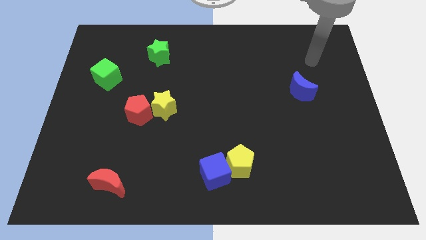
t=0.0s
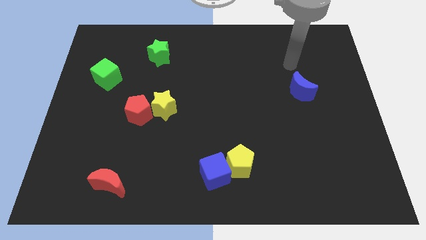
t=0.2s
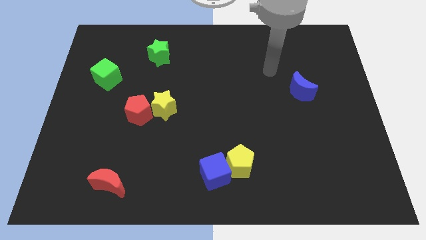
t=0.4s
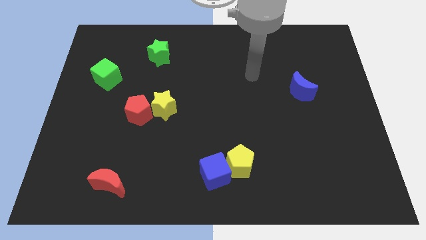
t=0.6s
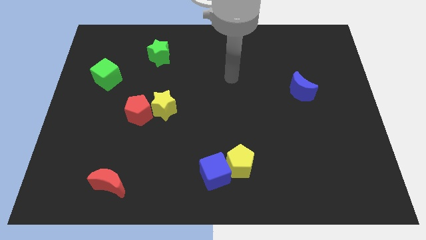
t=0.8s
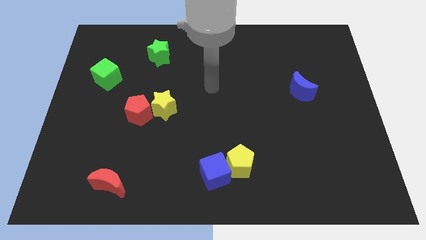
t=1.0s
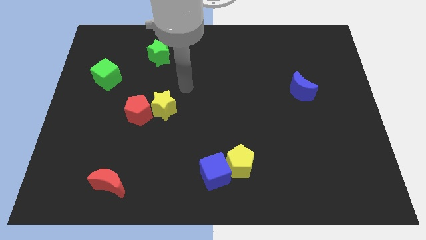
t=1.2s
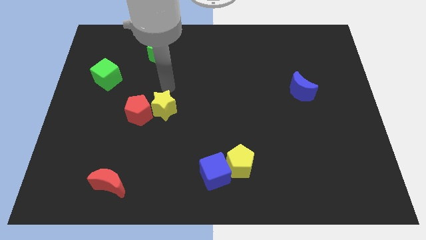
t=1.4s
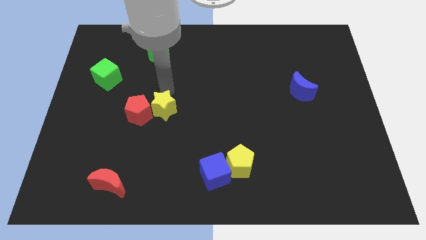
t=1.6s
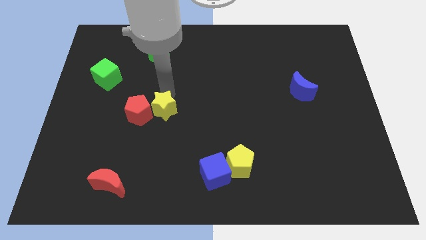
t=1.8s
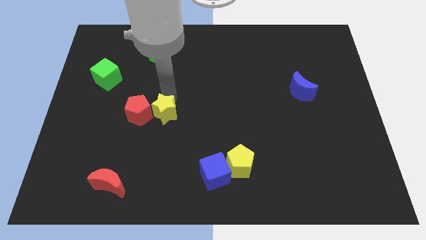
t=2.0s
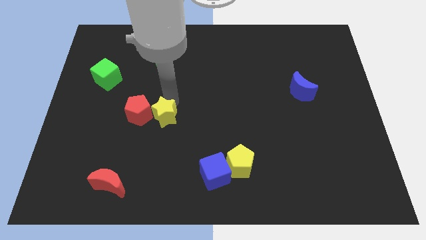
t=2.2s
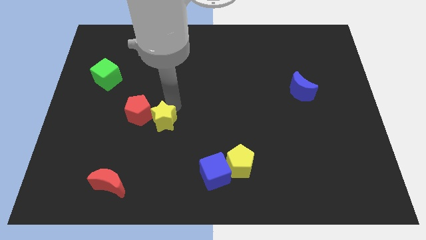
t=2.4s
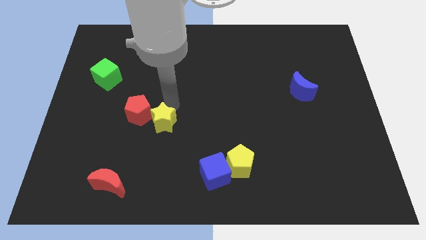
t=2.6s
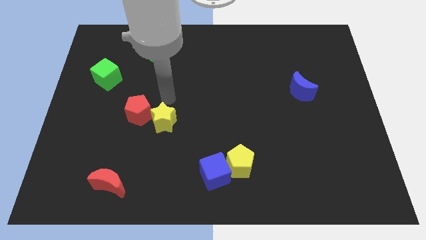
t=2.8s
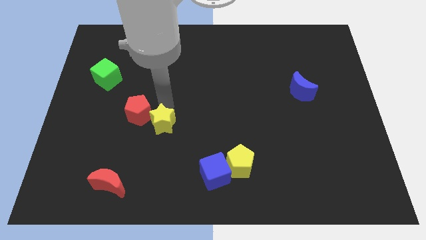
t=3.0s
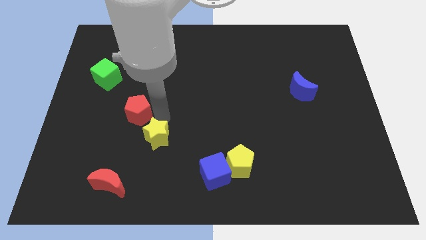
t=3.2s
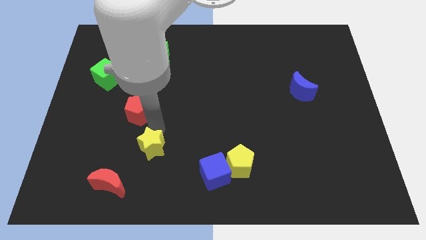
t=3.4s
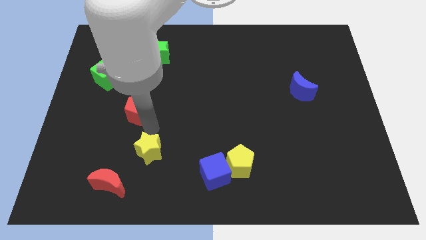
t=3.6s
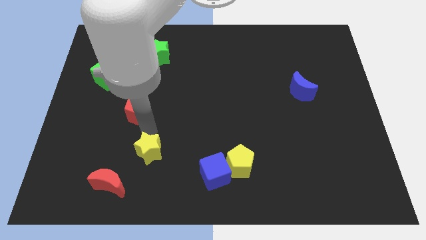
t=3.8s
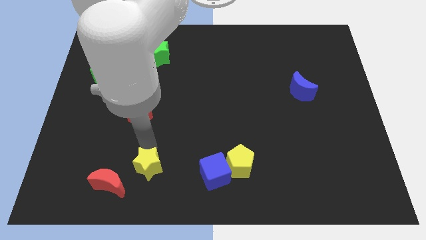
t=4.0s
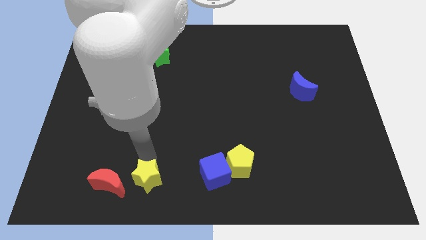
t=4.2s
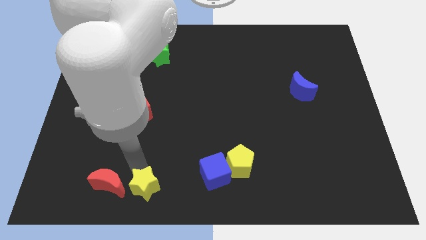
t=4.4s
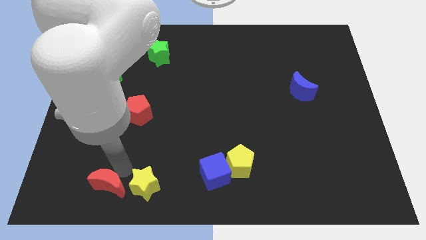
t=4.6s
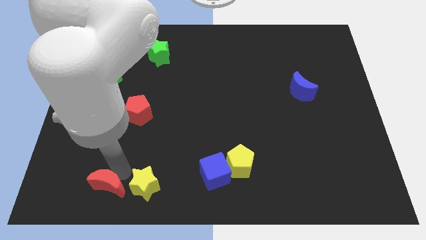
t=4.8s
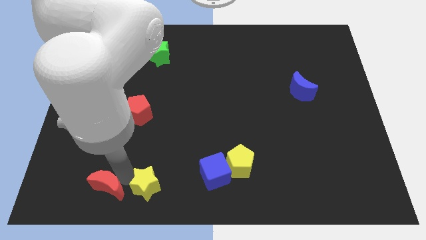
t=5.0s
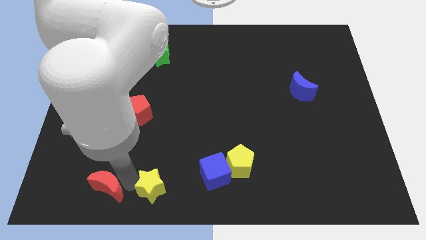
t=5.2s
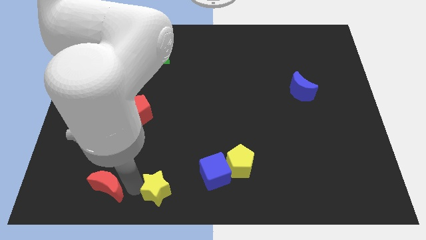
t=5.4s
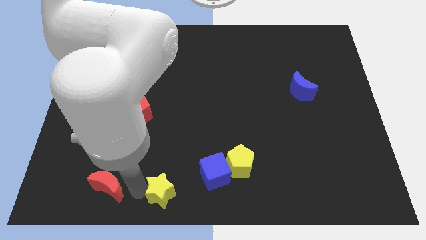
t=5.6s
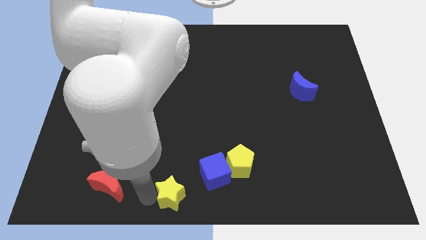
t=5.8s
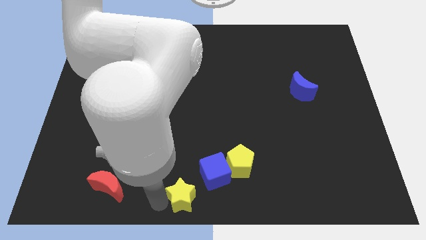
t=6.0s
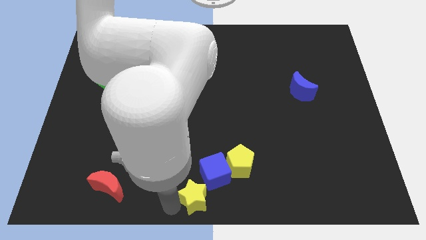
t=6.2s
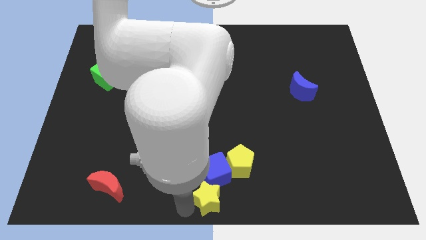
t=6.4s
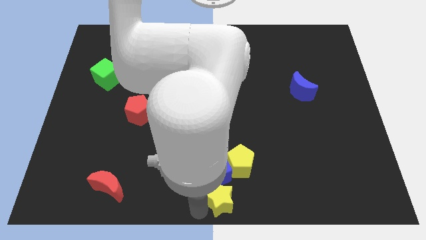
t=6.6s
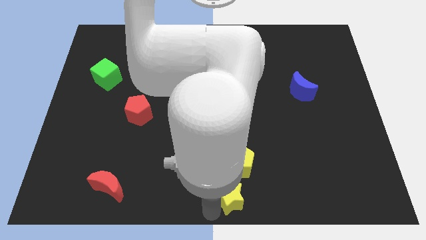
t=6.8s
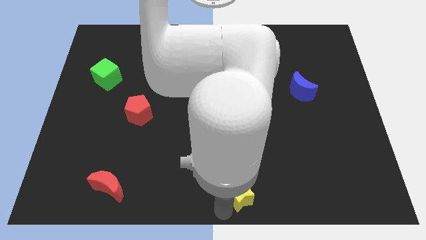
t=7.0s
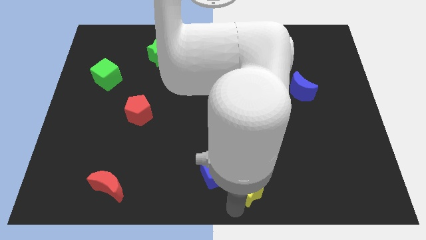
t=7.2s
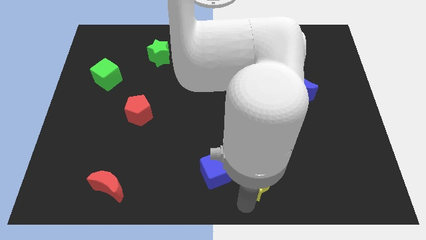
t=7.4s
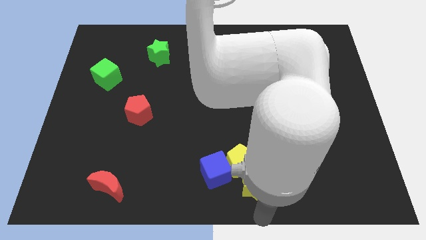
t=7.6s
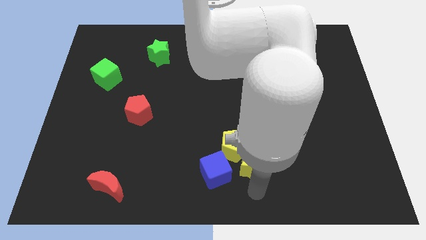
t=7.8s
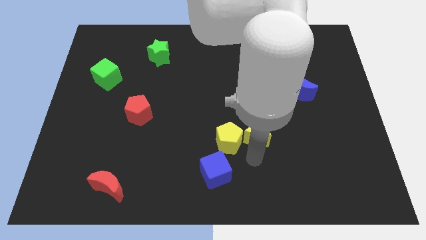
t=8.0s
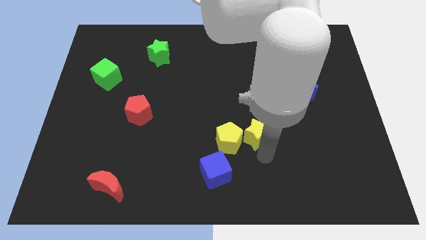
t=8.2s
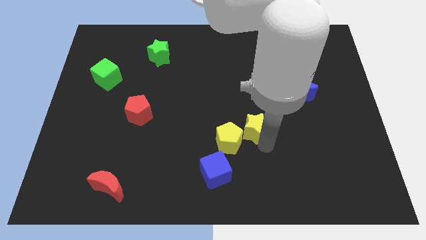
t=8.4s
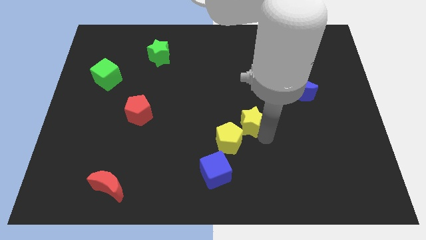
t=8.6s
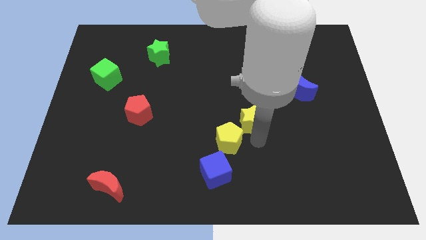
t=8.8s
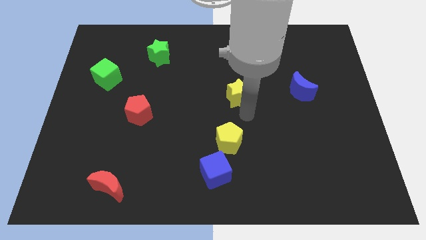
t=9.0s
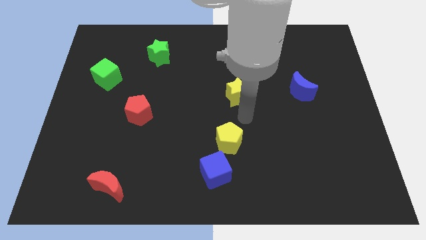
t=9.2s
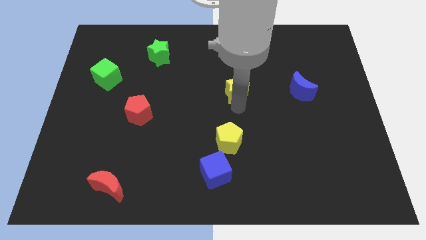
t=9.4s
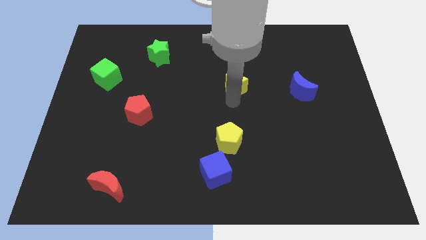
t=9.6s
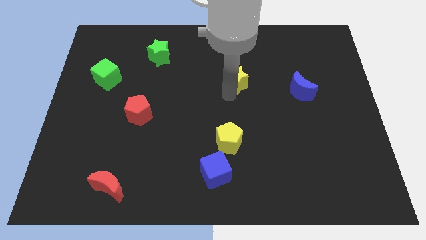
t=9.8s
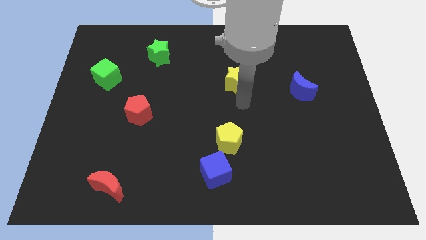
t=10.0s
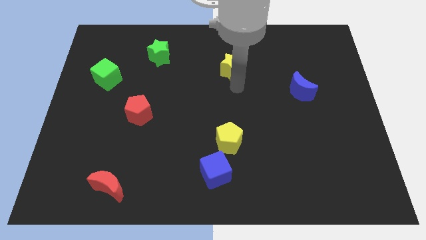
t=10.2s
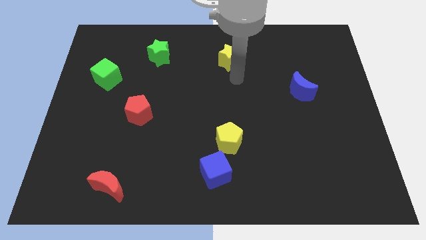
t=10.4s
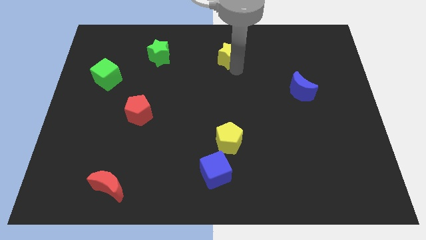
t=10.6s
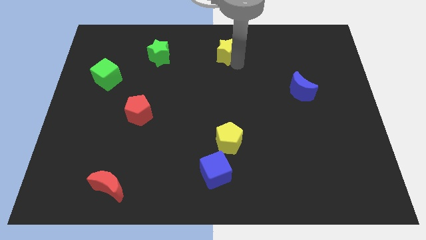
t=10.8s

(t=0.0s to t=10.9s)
push the yellow star to the towards your base
